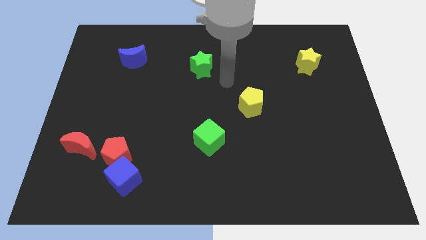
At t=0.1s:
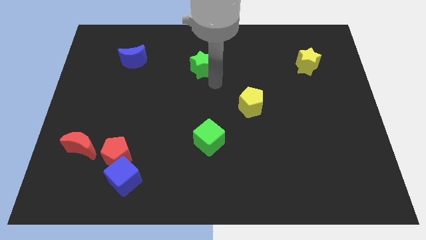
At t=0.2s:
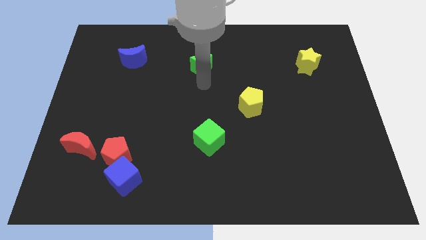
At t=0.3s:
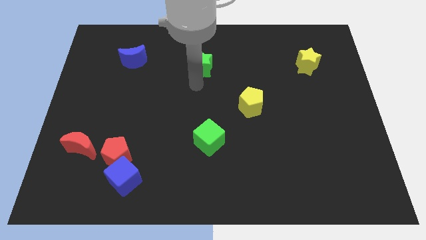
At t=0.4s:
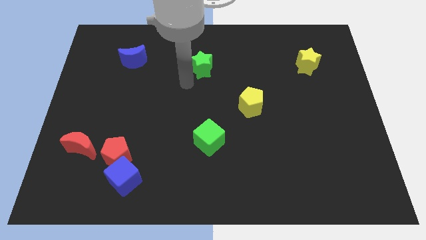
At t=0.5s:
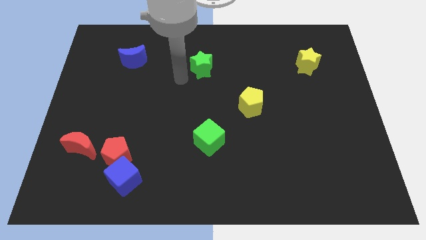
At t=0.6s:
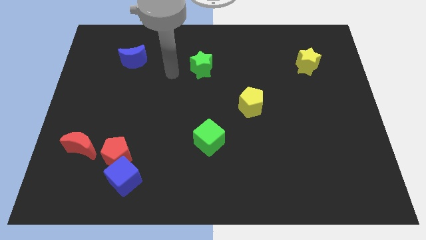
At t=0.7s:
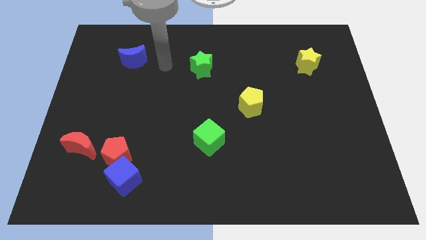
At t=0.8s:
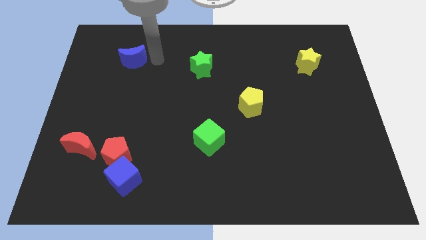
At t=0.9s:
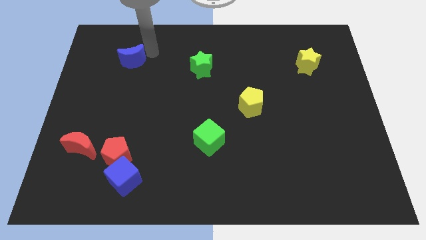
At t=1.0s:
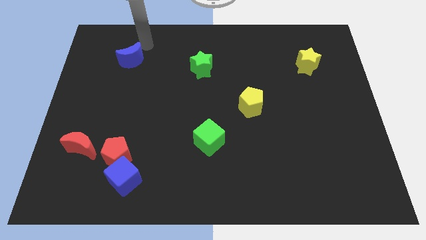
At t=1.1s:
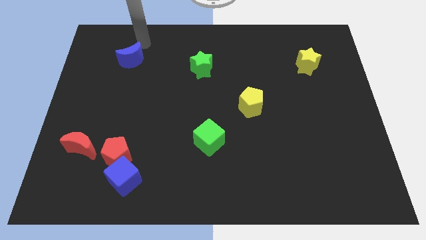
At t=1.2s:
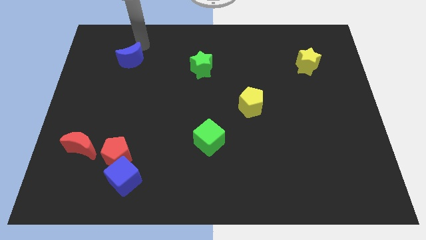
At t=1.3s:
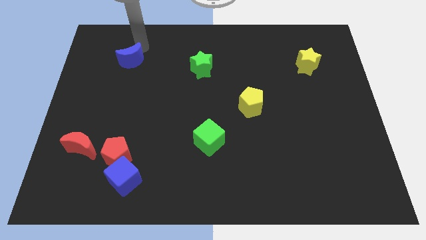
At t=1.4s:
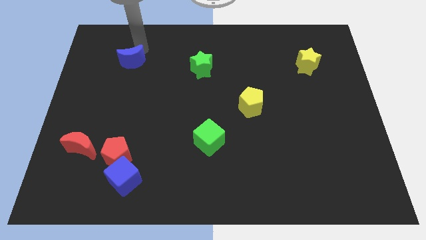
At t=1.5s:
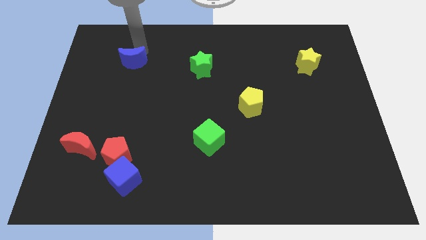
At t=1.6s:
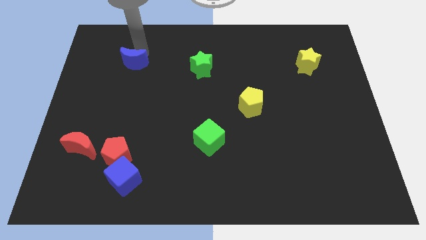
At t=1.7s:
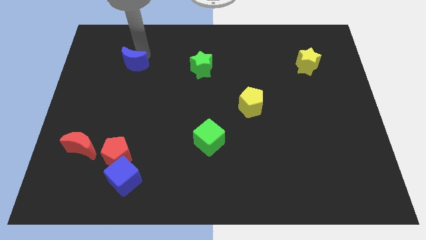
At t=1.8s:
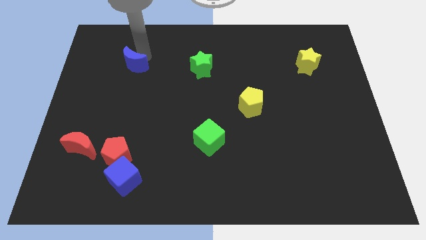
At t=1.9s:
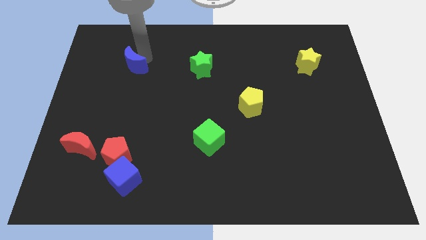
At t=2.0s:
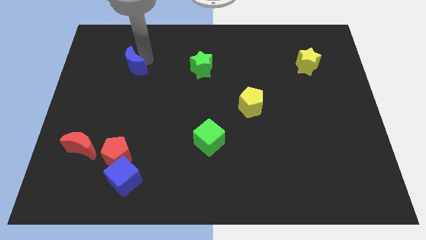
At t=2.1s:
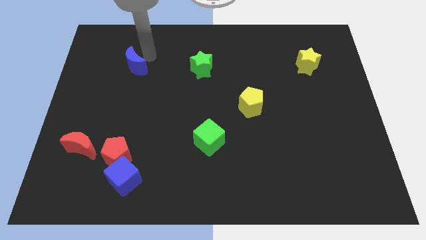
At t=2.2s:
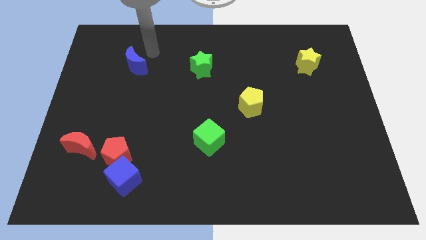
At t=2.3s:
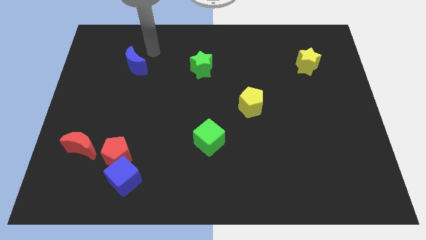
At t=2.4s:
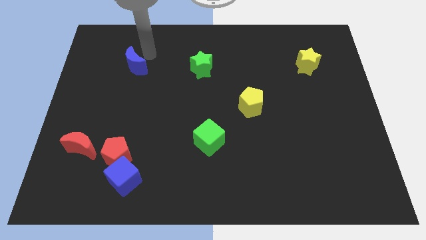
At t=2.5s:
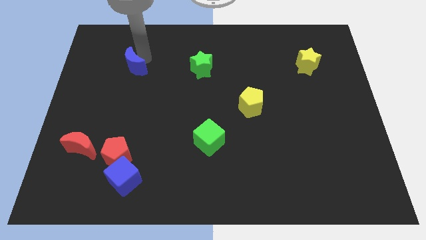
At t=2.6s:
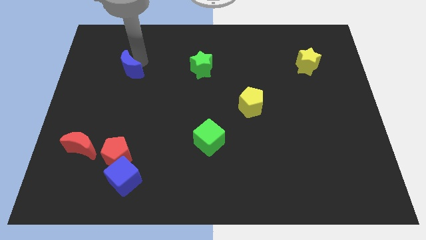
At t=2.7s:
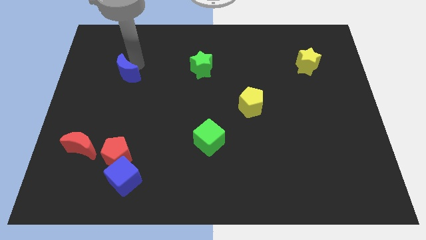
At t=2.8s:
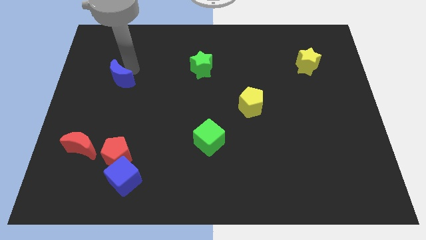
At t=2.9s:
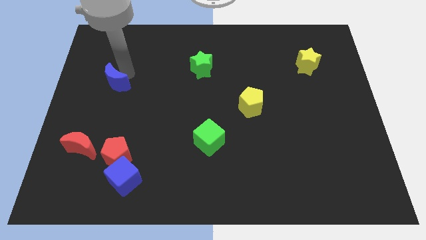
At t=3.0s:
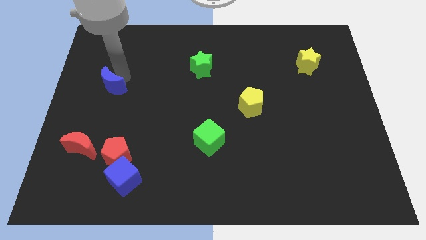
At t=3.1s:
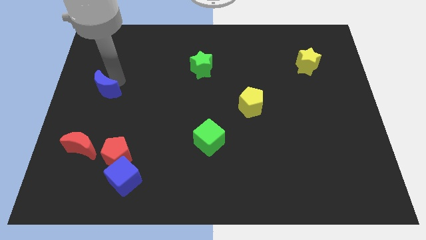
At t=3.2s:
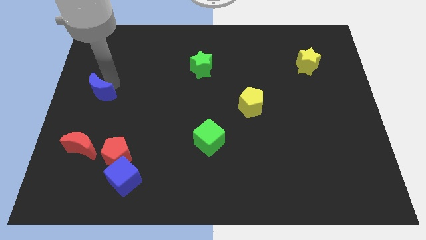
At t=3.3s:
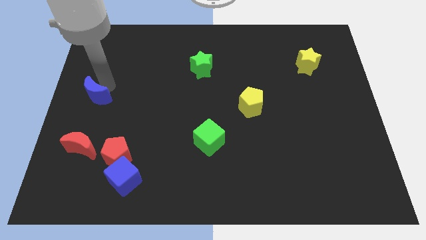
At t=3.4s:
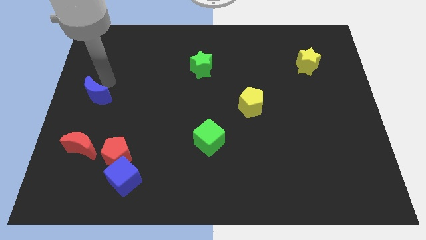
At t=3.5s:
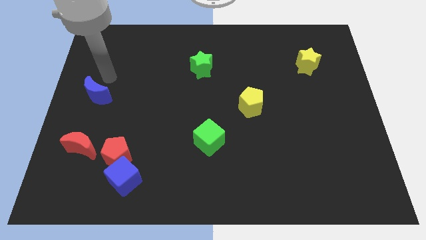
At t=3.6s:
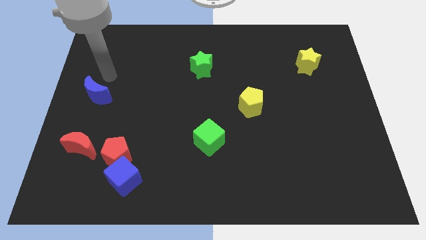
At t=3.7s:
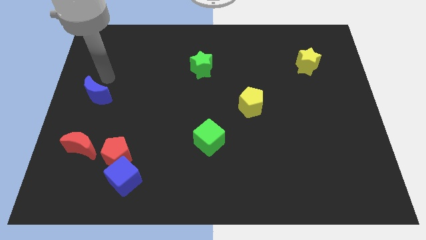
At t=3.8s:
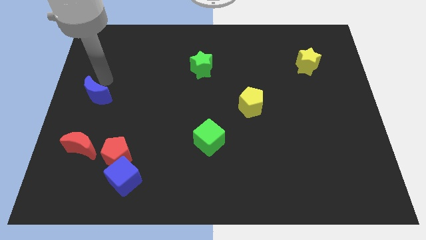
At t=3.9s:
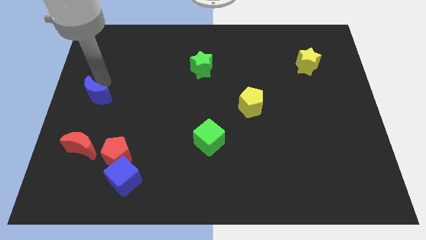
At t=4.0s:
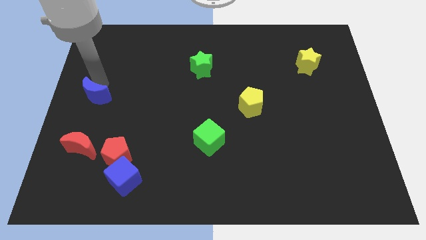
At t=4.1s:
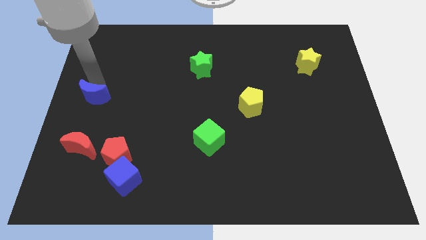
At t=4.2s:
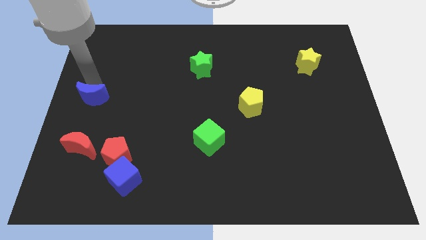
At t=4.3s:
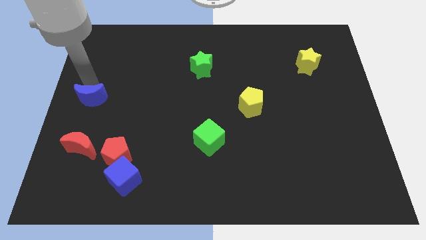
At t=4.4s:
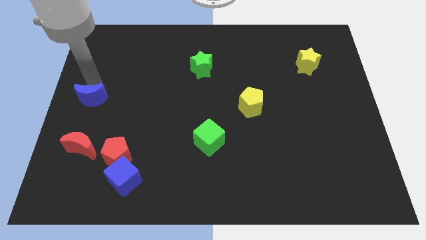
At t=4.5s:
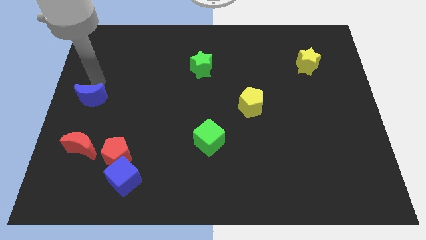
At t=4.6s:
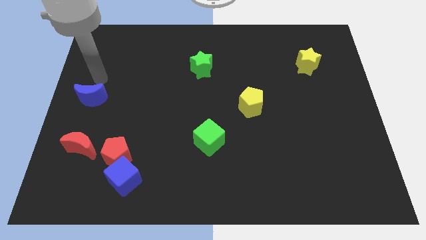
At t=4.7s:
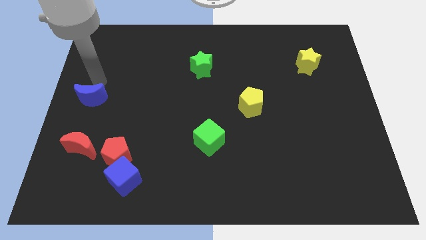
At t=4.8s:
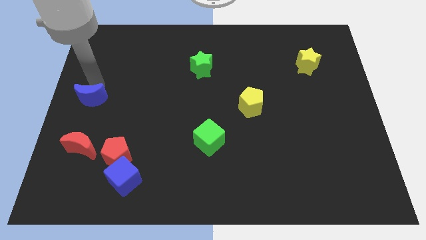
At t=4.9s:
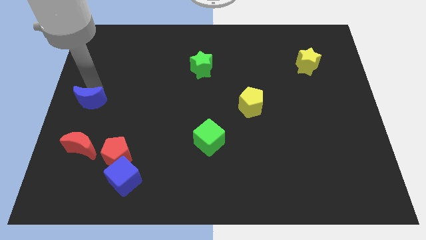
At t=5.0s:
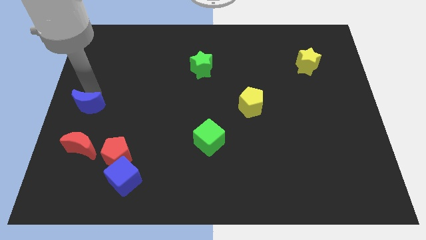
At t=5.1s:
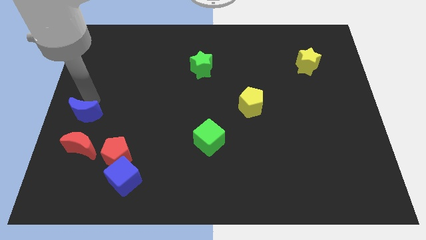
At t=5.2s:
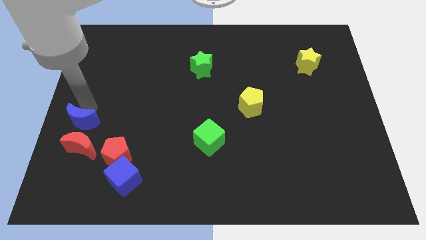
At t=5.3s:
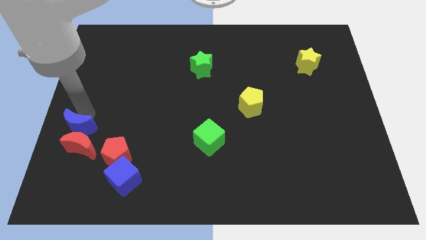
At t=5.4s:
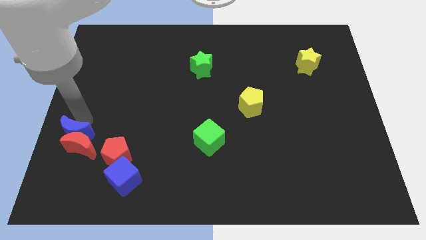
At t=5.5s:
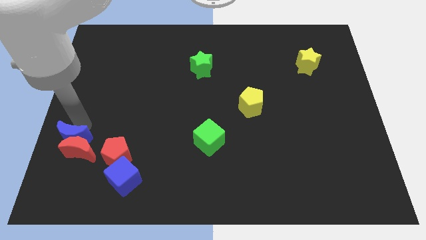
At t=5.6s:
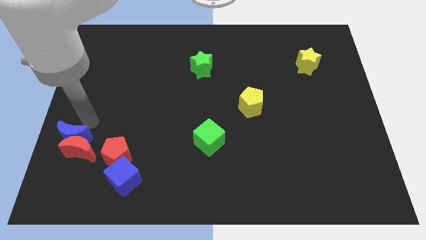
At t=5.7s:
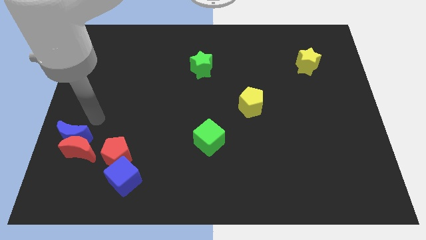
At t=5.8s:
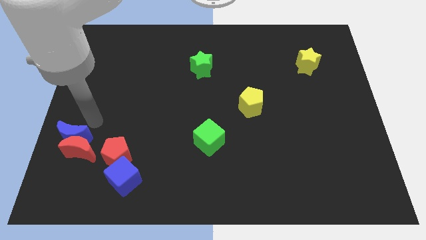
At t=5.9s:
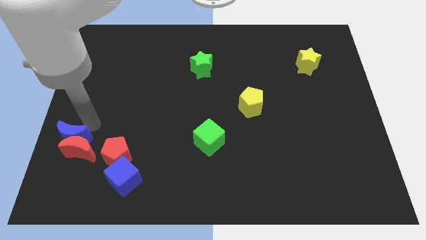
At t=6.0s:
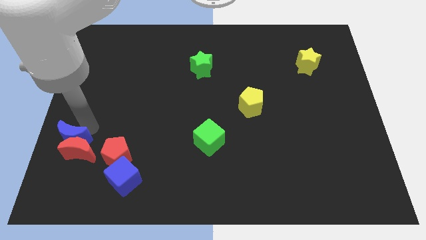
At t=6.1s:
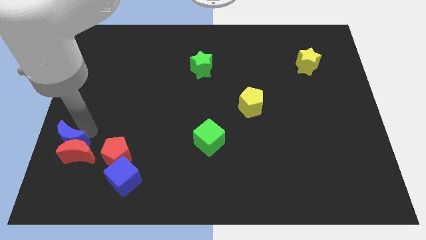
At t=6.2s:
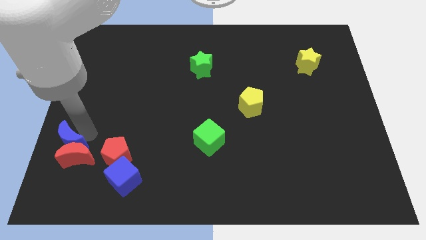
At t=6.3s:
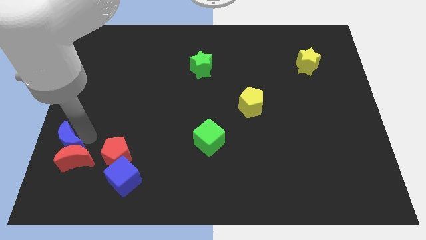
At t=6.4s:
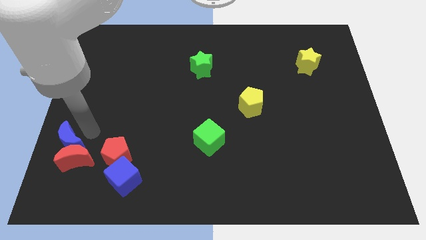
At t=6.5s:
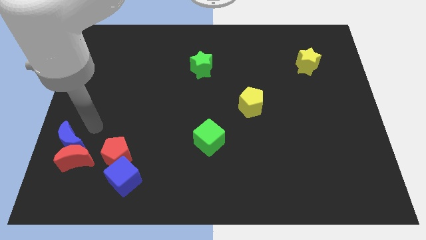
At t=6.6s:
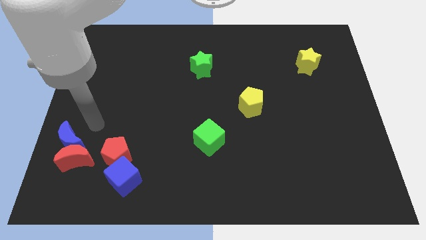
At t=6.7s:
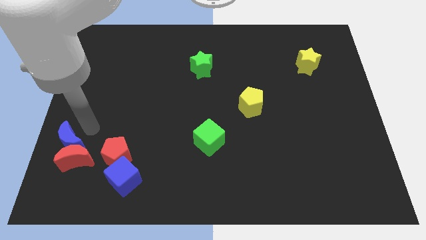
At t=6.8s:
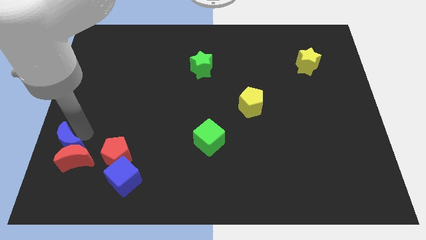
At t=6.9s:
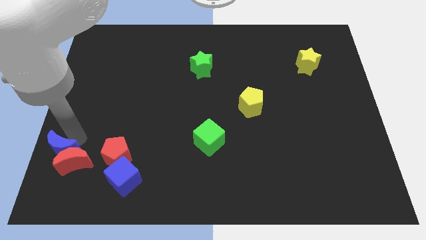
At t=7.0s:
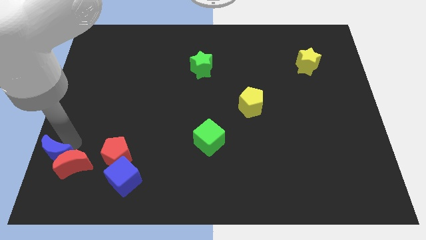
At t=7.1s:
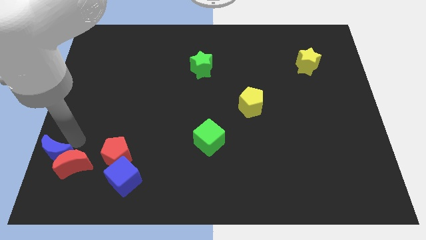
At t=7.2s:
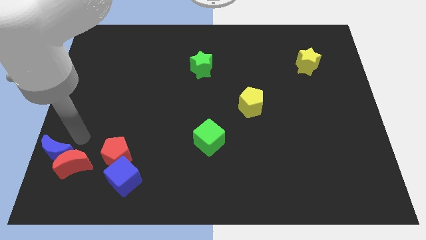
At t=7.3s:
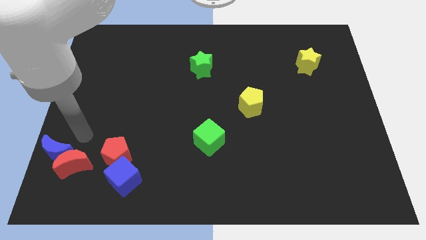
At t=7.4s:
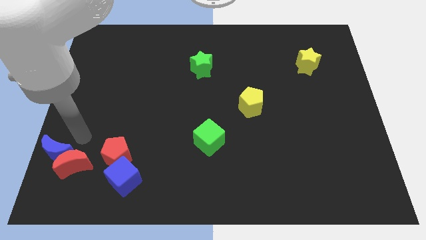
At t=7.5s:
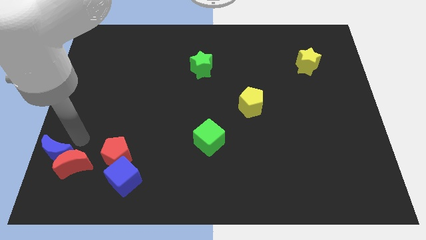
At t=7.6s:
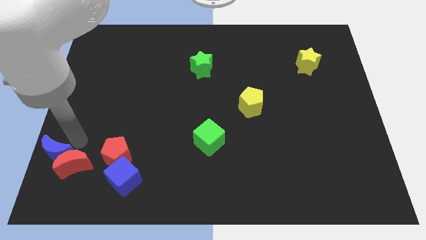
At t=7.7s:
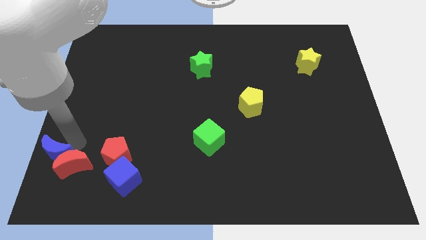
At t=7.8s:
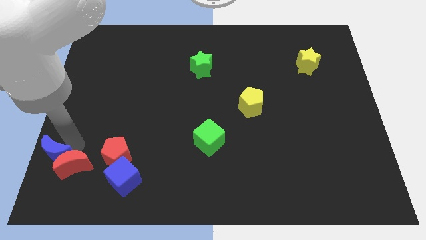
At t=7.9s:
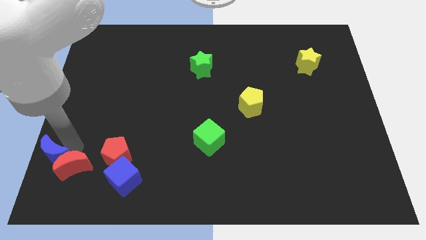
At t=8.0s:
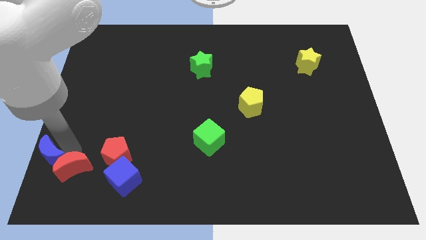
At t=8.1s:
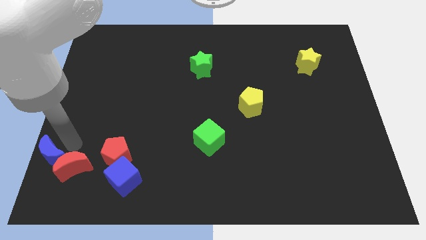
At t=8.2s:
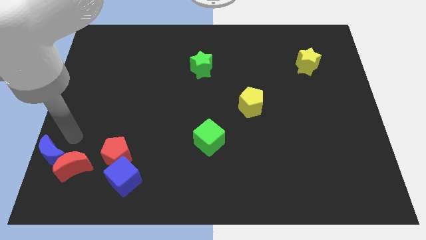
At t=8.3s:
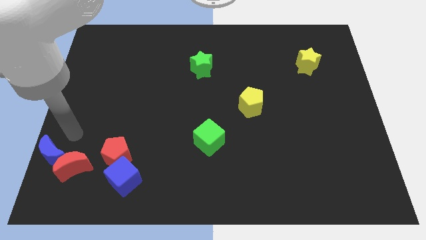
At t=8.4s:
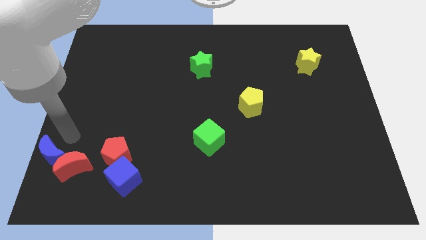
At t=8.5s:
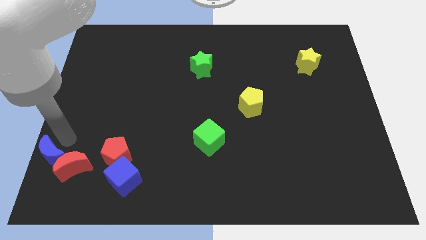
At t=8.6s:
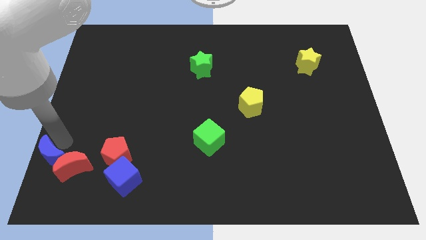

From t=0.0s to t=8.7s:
push the blue moon to the bottom left of the board
